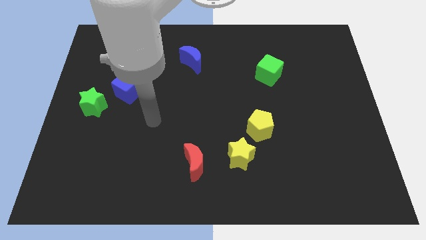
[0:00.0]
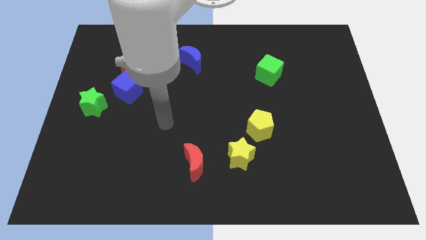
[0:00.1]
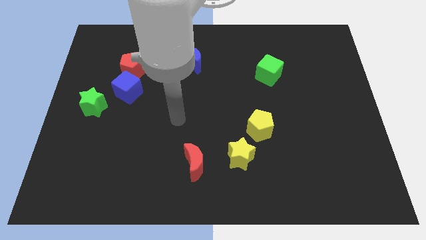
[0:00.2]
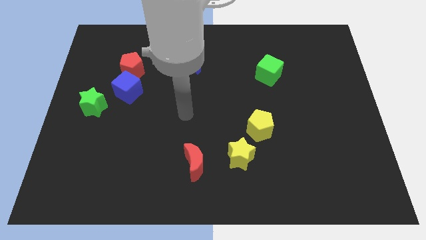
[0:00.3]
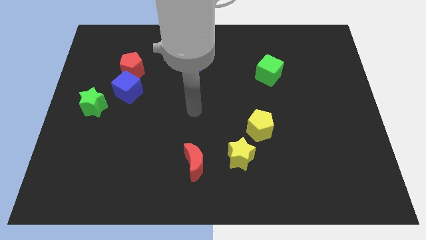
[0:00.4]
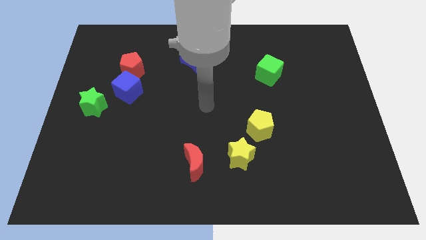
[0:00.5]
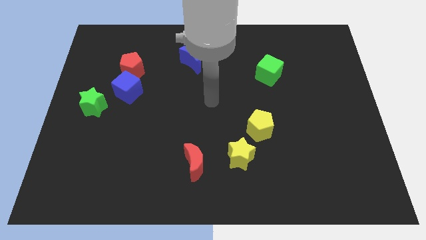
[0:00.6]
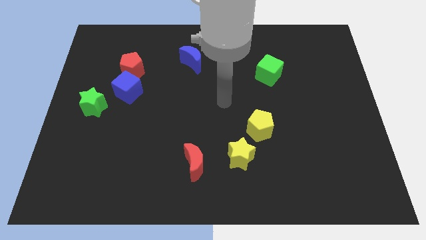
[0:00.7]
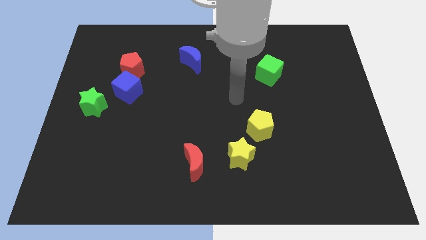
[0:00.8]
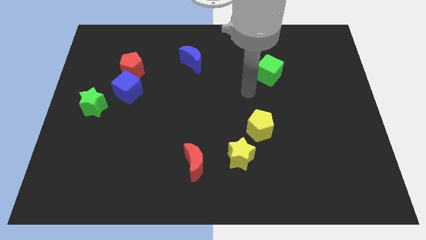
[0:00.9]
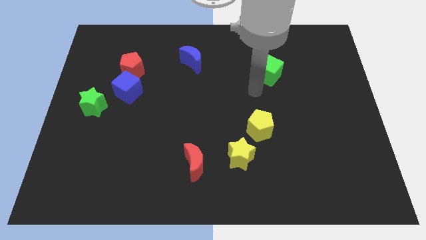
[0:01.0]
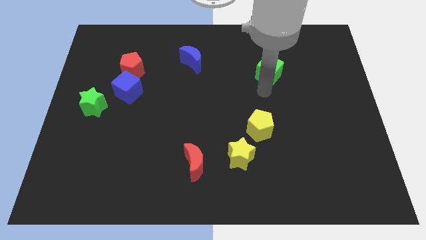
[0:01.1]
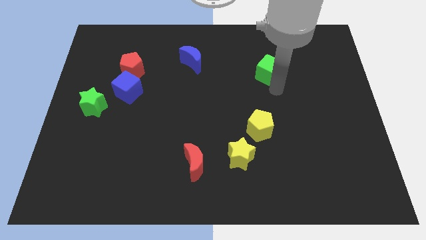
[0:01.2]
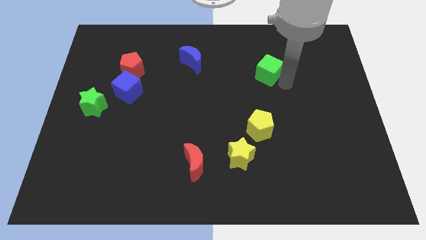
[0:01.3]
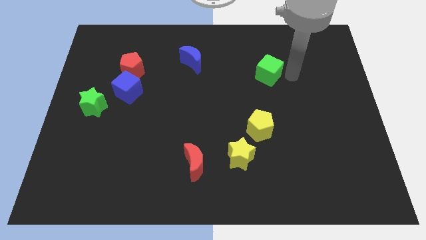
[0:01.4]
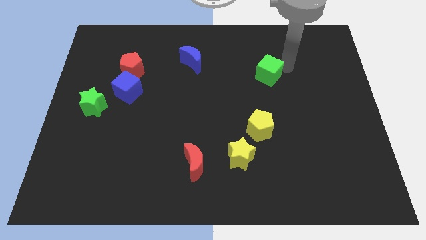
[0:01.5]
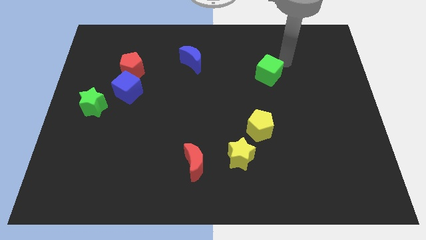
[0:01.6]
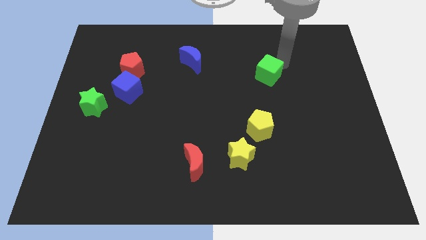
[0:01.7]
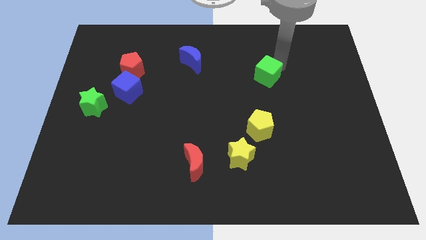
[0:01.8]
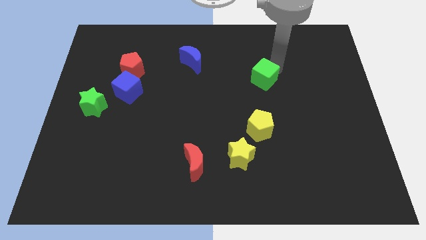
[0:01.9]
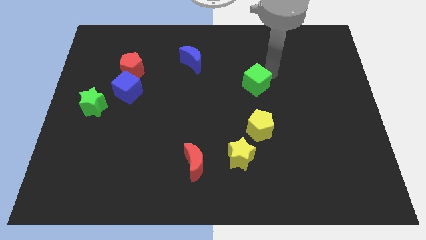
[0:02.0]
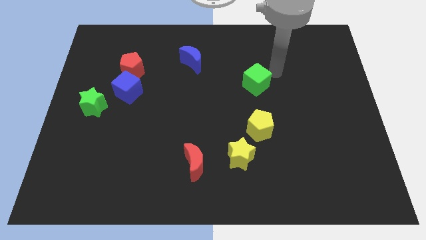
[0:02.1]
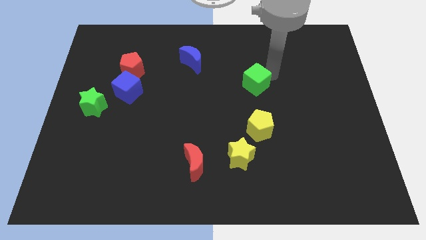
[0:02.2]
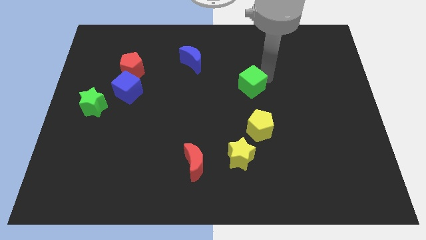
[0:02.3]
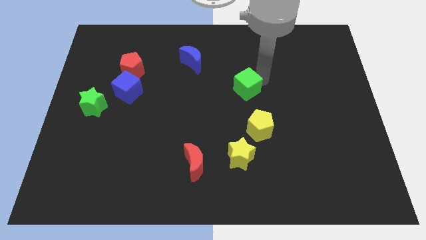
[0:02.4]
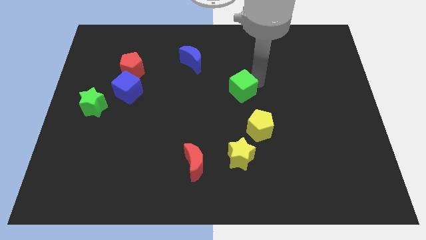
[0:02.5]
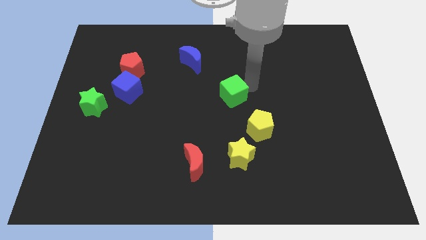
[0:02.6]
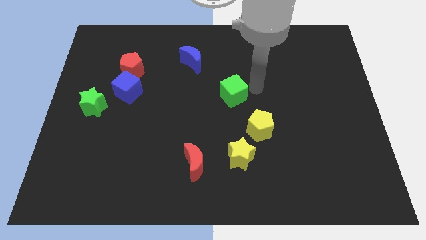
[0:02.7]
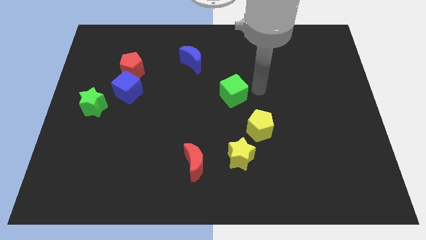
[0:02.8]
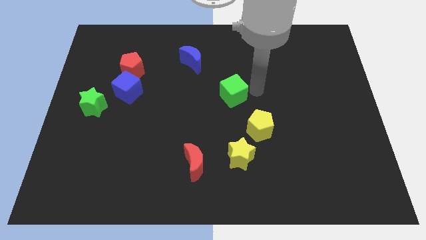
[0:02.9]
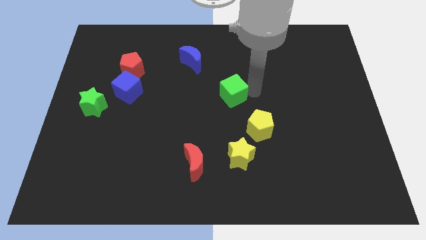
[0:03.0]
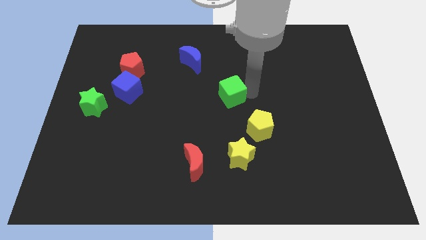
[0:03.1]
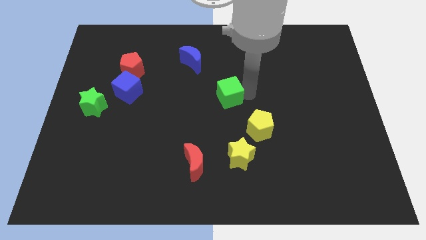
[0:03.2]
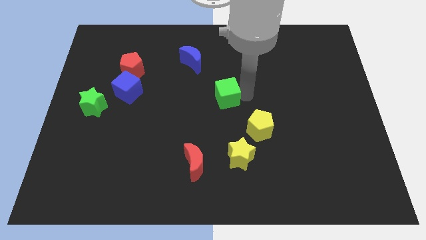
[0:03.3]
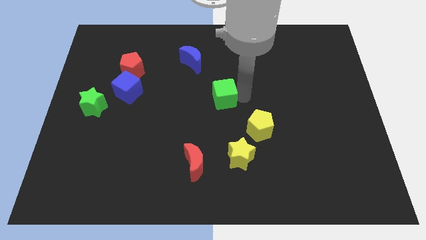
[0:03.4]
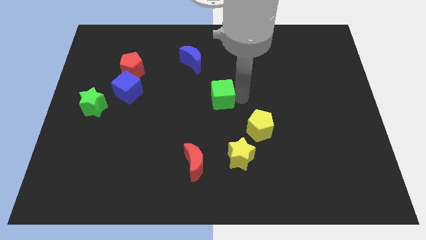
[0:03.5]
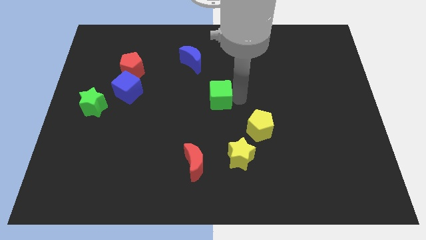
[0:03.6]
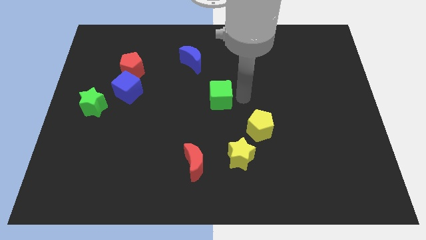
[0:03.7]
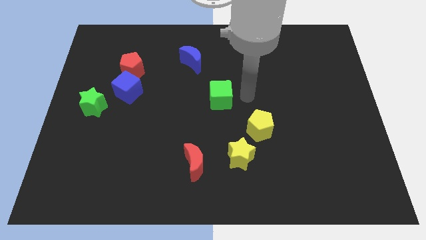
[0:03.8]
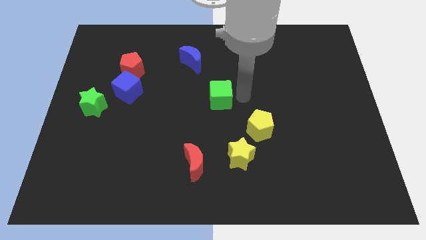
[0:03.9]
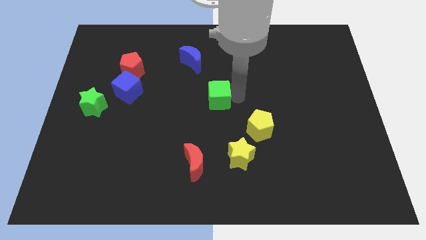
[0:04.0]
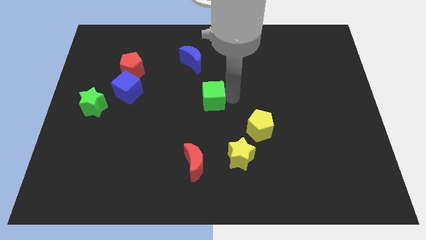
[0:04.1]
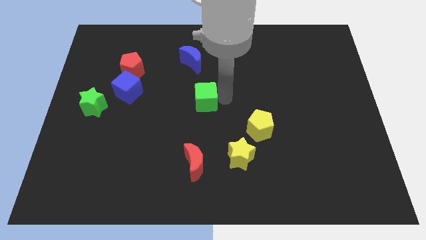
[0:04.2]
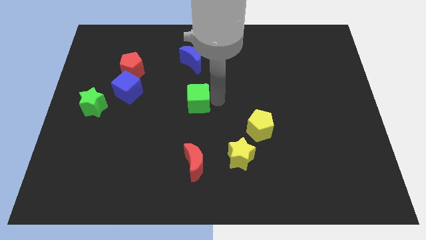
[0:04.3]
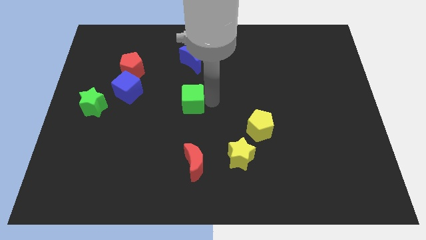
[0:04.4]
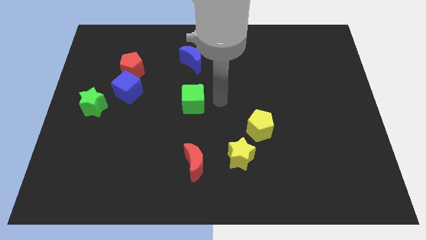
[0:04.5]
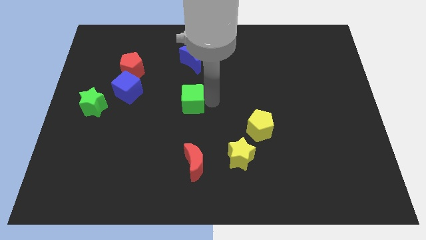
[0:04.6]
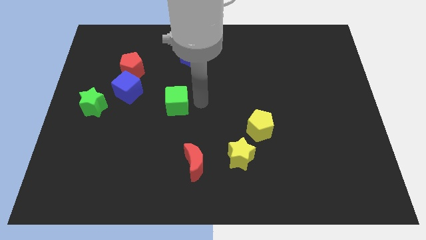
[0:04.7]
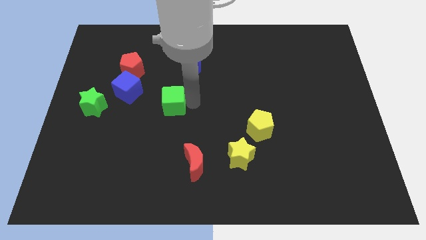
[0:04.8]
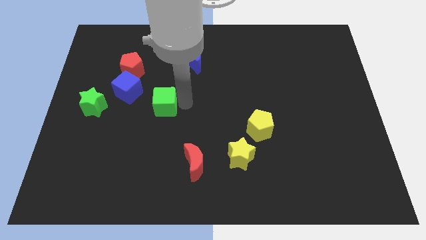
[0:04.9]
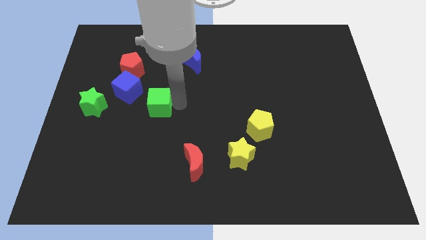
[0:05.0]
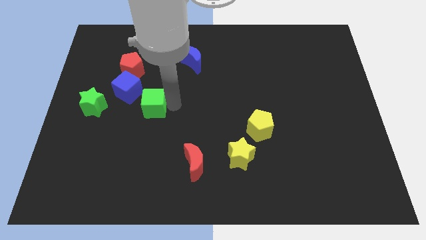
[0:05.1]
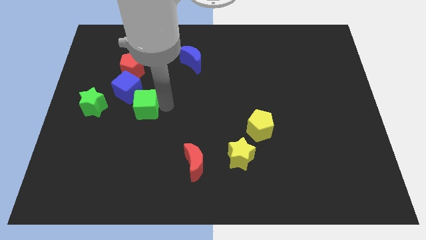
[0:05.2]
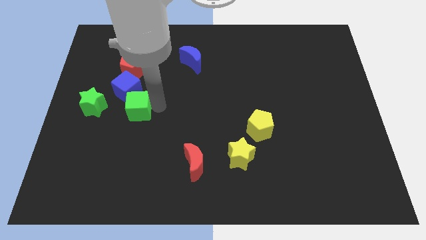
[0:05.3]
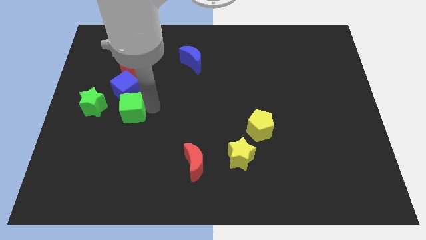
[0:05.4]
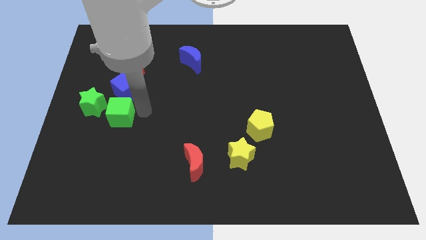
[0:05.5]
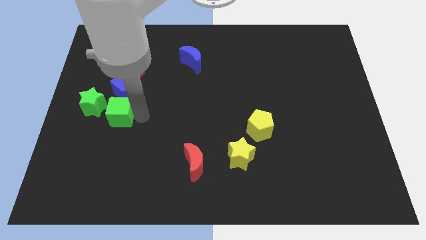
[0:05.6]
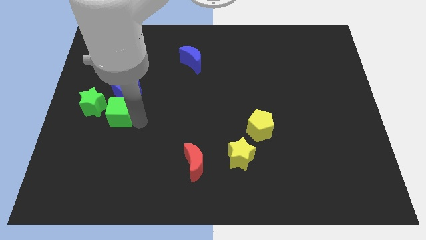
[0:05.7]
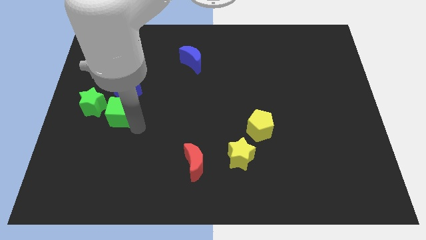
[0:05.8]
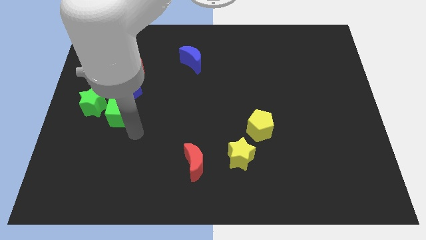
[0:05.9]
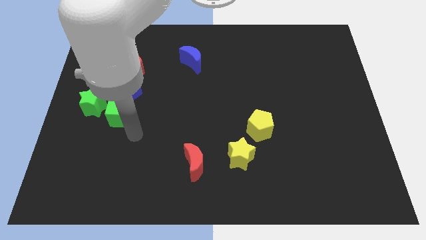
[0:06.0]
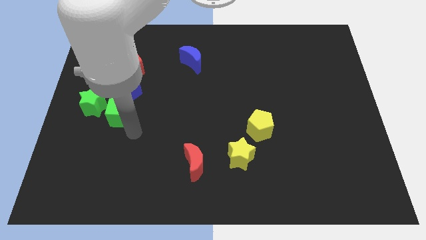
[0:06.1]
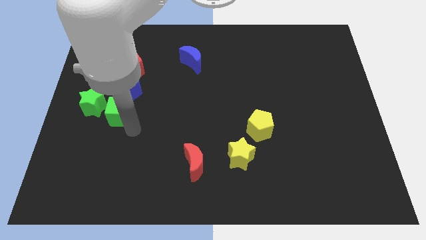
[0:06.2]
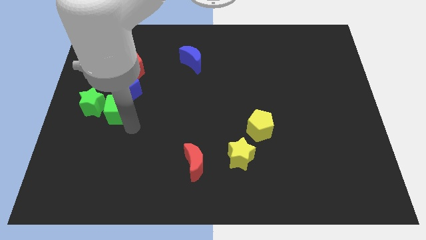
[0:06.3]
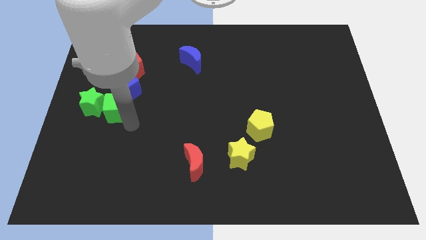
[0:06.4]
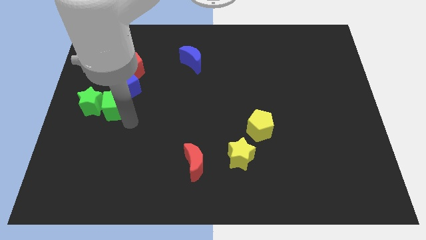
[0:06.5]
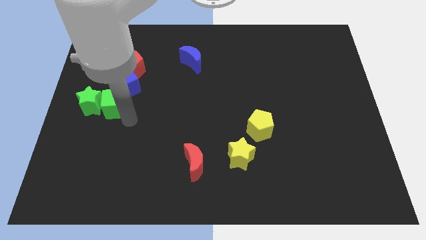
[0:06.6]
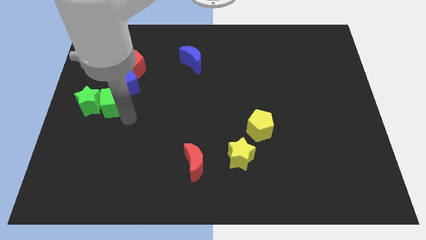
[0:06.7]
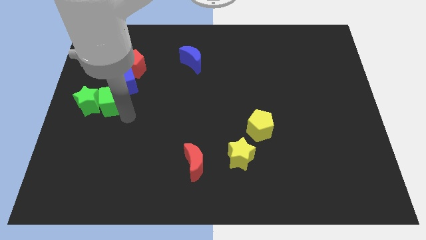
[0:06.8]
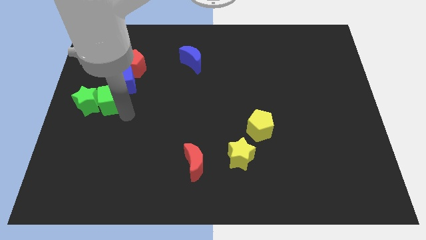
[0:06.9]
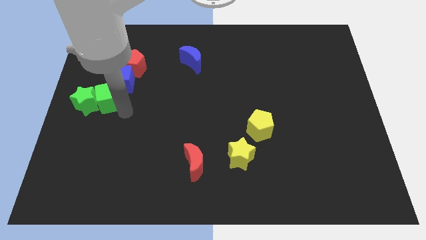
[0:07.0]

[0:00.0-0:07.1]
push the green cube to the left side
